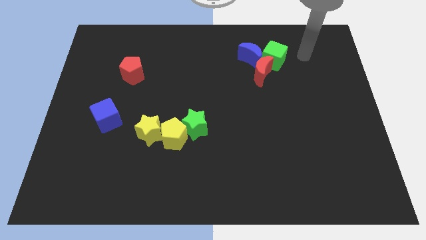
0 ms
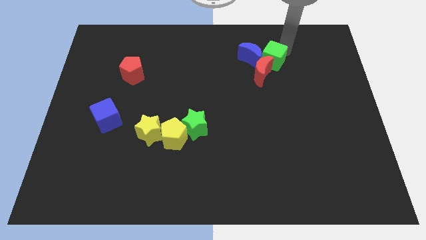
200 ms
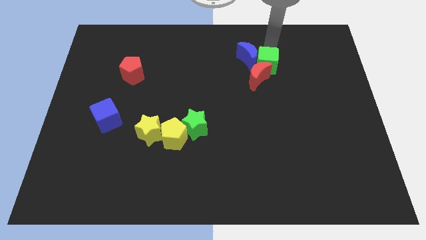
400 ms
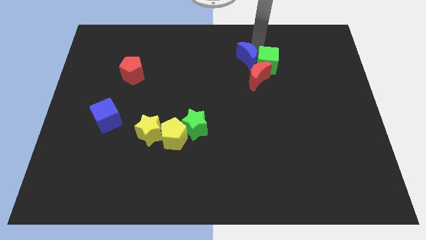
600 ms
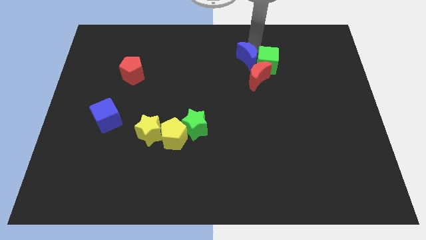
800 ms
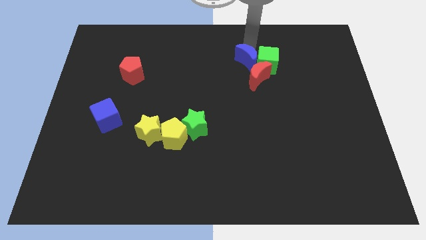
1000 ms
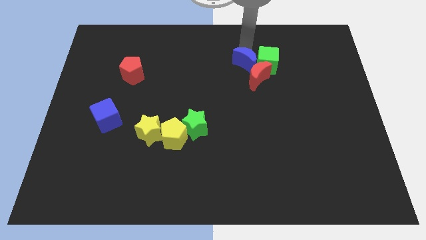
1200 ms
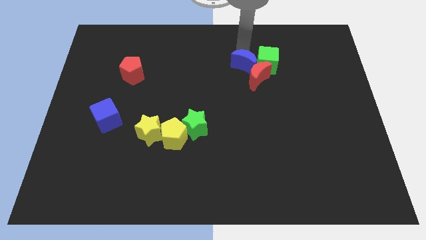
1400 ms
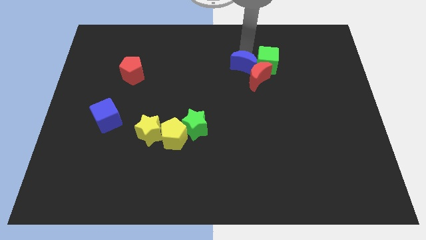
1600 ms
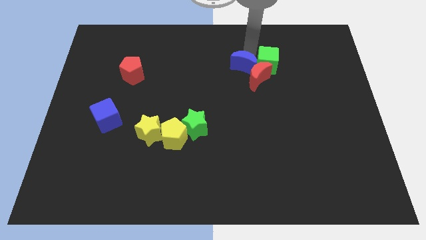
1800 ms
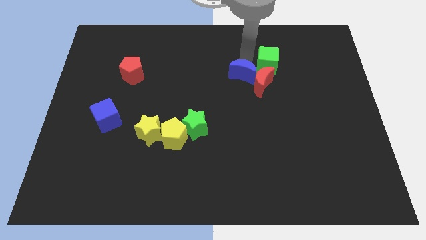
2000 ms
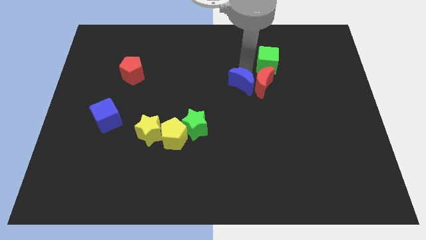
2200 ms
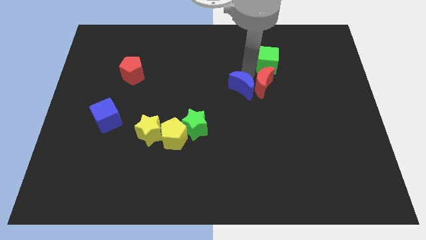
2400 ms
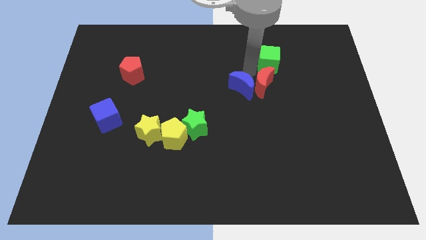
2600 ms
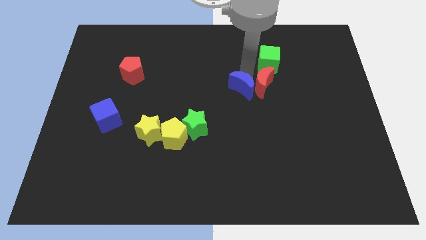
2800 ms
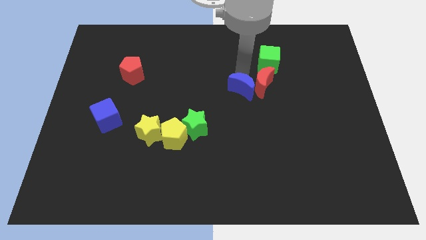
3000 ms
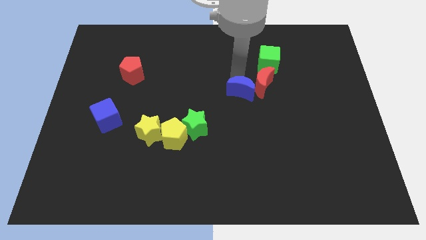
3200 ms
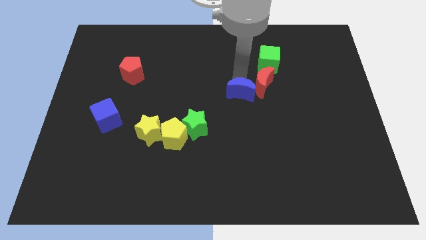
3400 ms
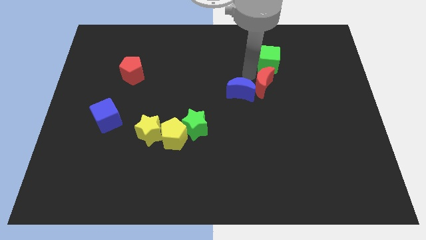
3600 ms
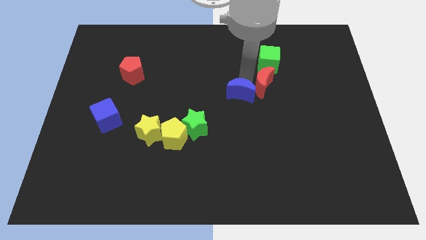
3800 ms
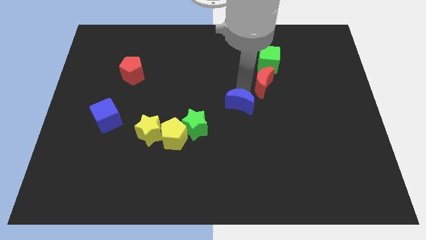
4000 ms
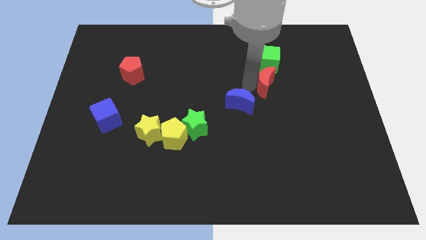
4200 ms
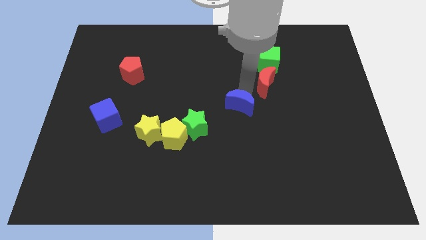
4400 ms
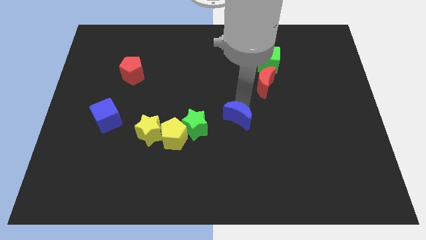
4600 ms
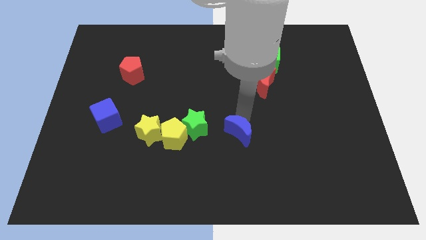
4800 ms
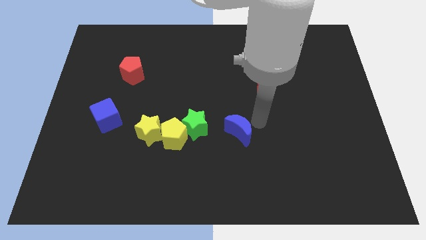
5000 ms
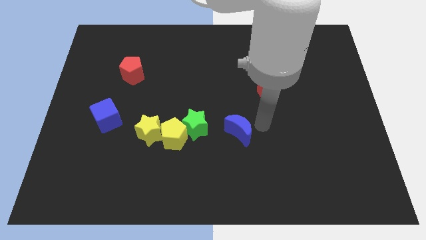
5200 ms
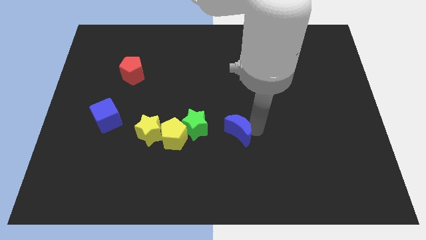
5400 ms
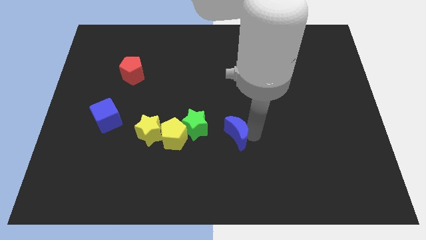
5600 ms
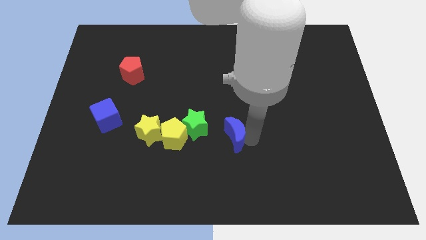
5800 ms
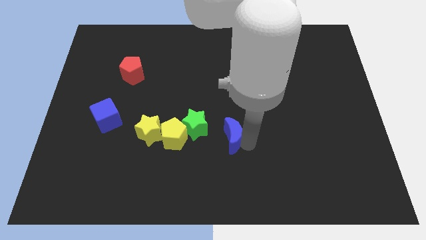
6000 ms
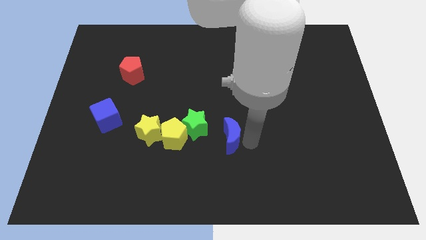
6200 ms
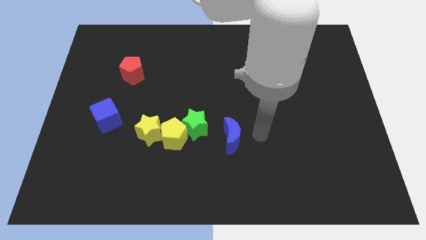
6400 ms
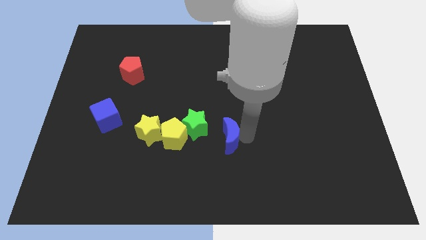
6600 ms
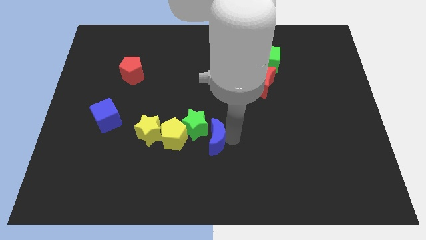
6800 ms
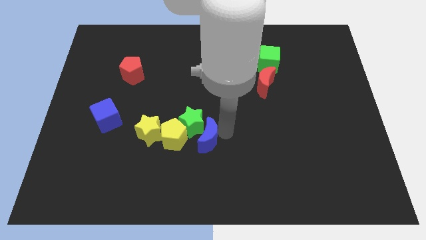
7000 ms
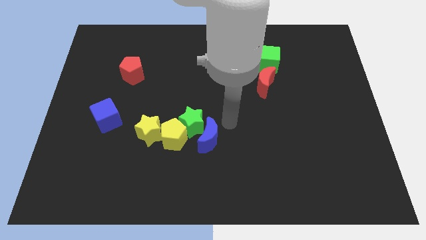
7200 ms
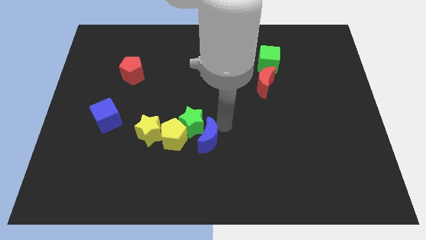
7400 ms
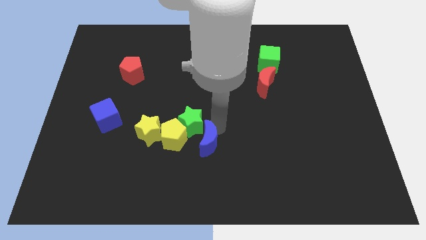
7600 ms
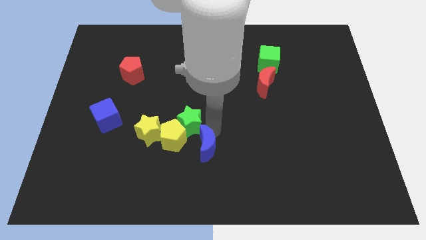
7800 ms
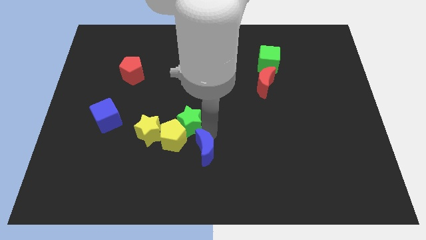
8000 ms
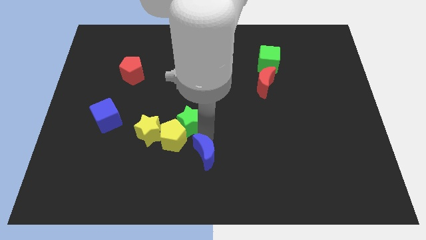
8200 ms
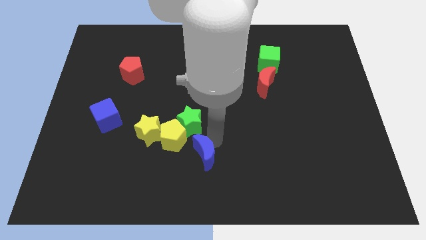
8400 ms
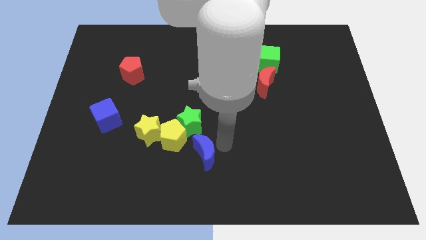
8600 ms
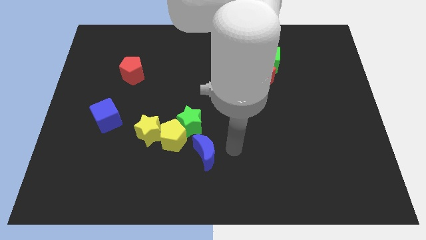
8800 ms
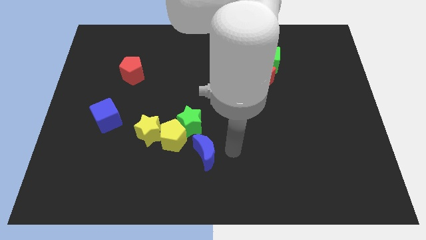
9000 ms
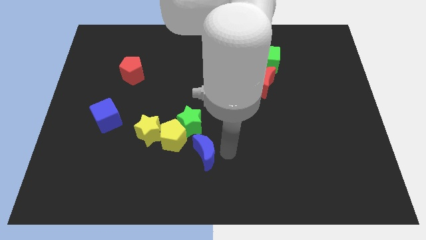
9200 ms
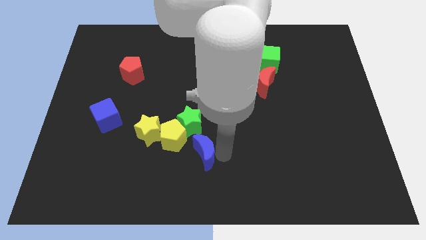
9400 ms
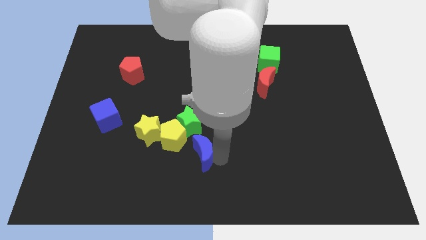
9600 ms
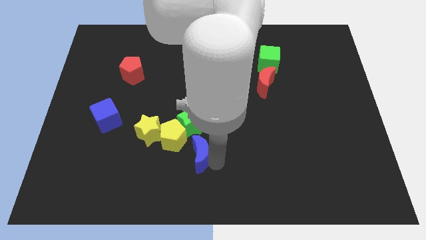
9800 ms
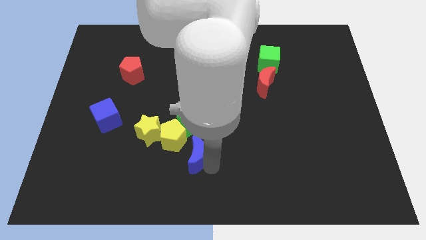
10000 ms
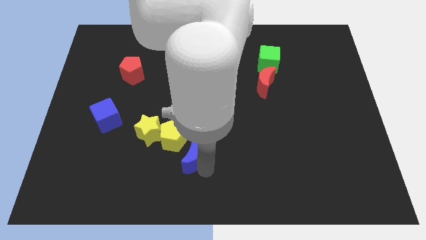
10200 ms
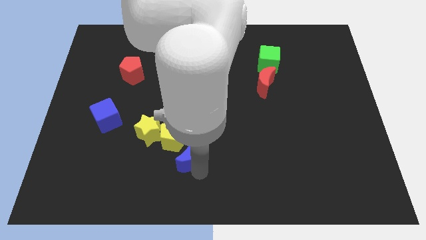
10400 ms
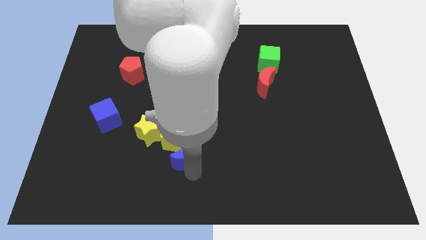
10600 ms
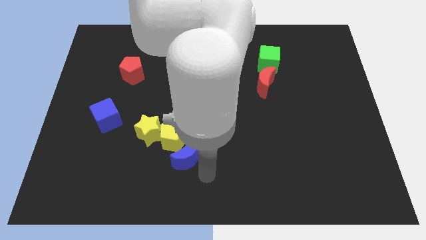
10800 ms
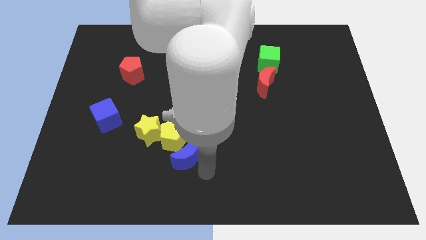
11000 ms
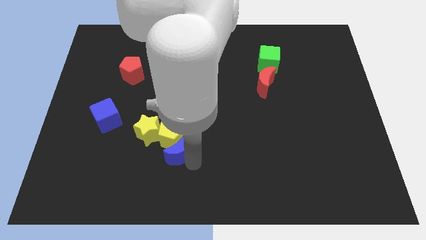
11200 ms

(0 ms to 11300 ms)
move the blue moon to the bottom left of the green star
